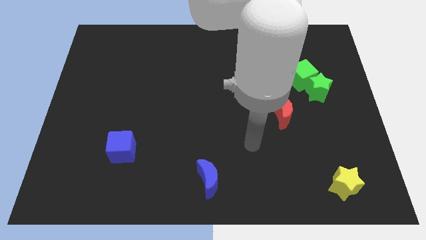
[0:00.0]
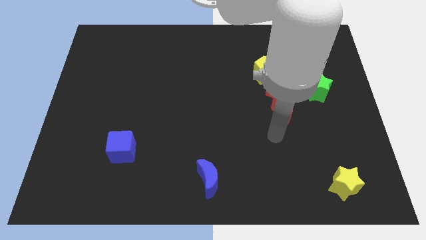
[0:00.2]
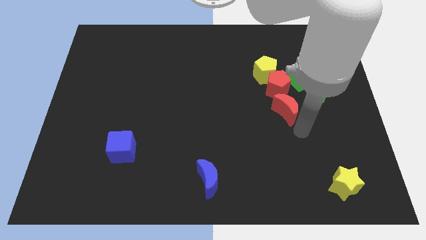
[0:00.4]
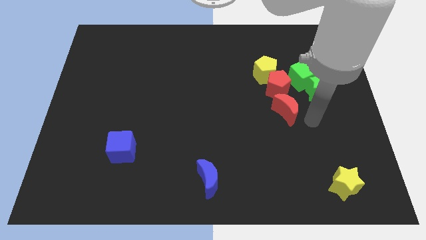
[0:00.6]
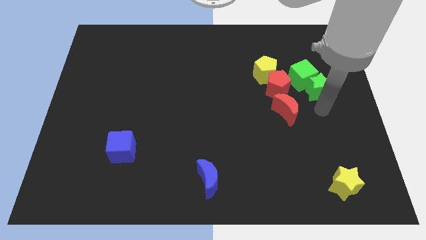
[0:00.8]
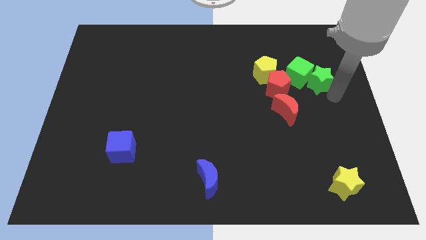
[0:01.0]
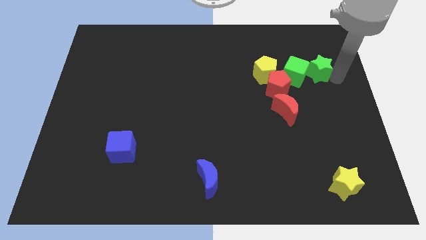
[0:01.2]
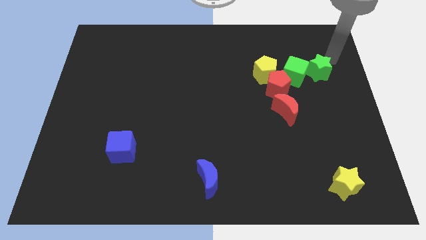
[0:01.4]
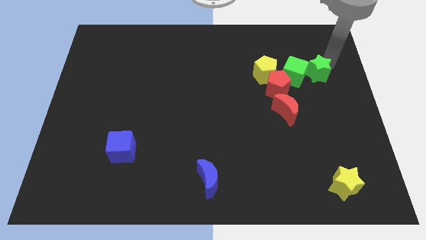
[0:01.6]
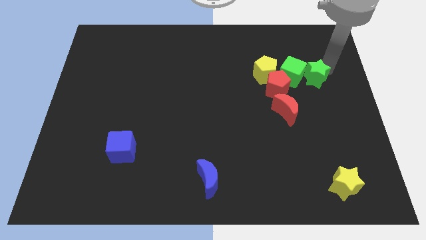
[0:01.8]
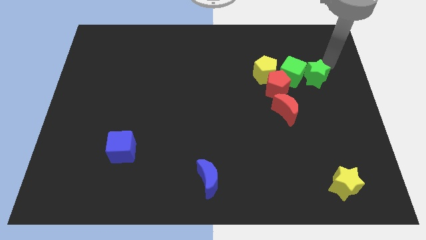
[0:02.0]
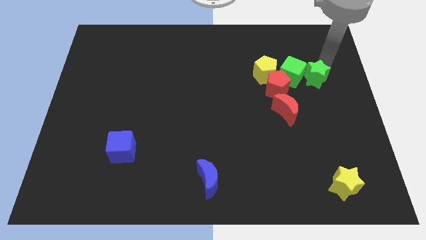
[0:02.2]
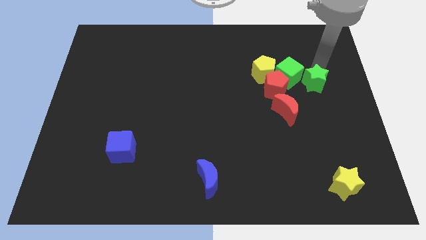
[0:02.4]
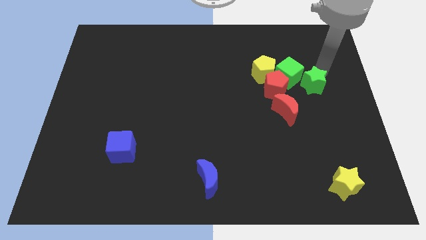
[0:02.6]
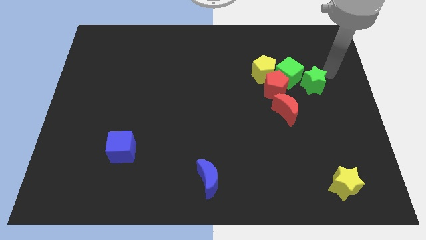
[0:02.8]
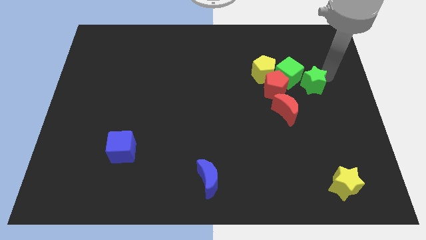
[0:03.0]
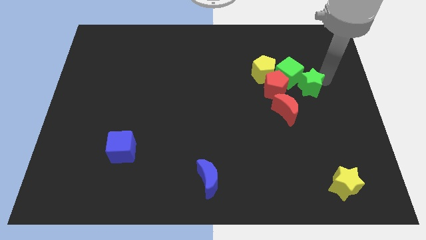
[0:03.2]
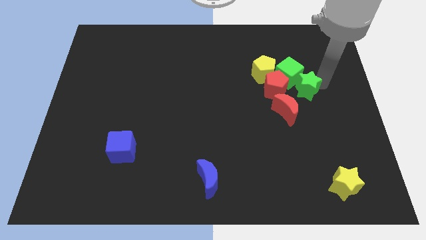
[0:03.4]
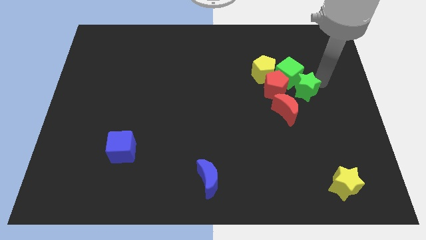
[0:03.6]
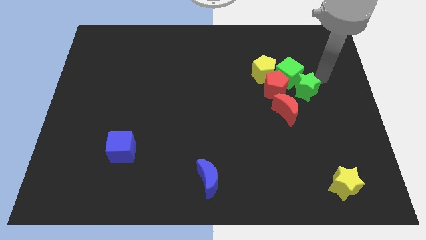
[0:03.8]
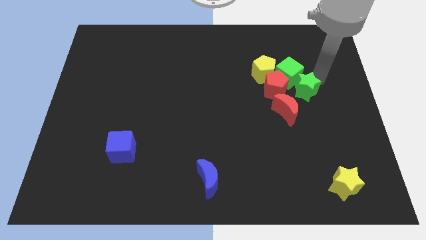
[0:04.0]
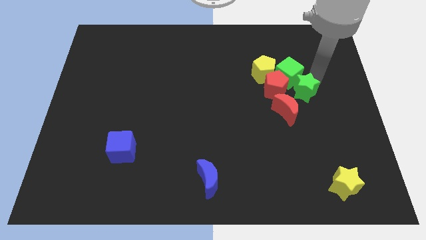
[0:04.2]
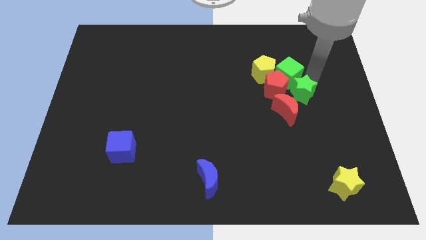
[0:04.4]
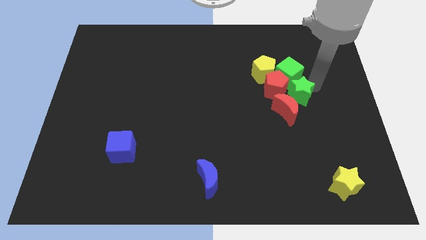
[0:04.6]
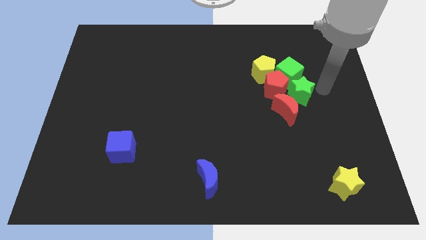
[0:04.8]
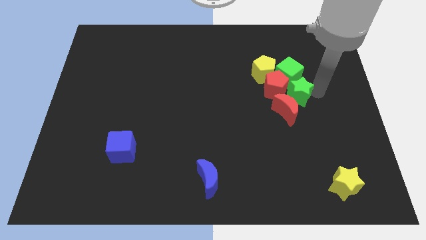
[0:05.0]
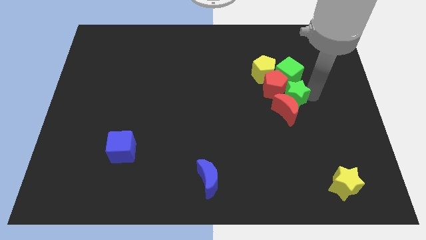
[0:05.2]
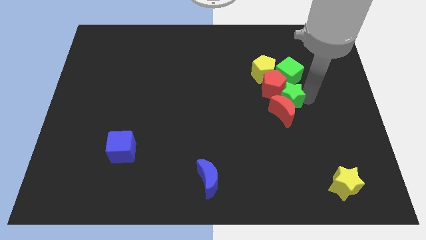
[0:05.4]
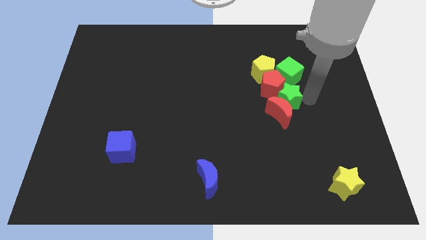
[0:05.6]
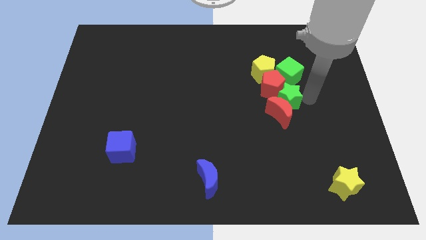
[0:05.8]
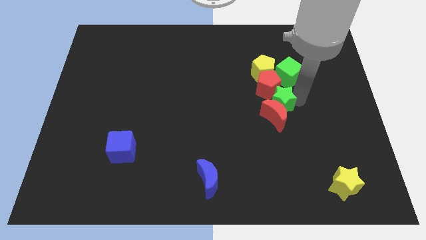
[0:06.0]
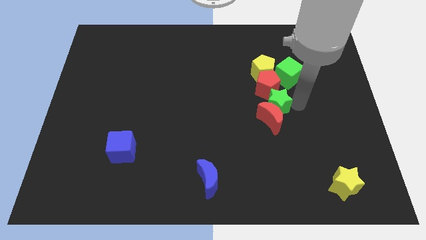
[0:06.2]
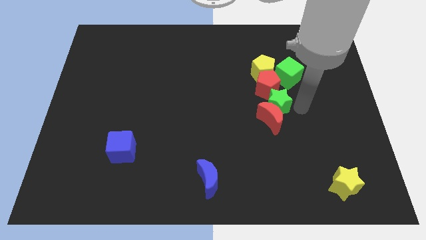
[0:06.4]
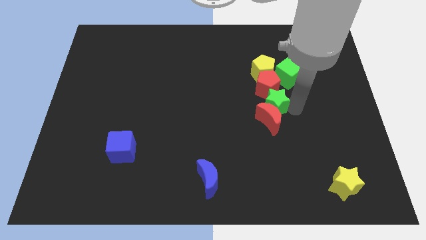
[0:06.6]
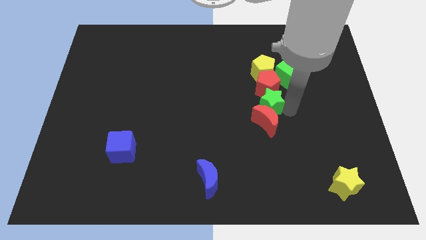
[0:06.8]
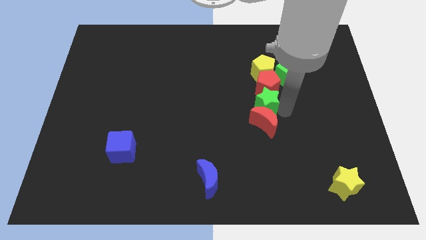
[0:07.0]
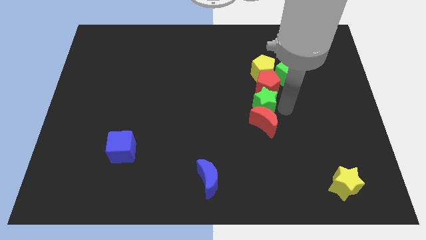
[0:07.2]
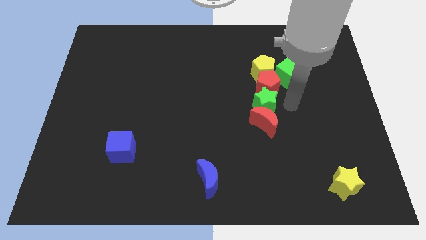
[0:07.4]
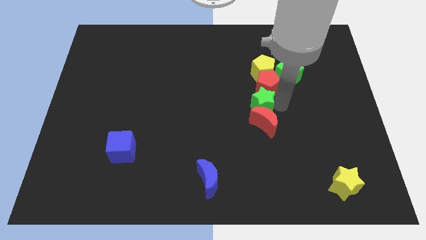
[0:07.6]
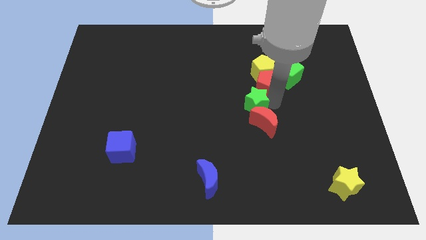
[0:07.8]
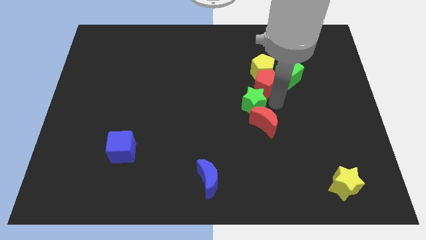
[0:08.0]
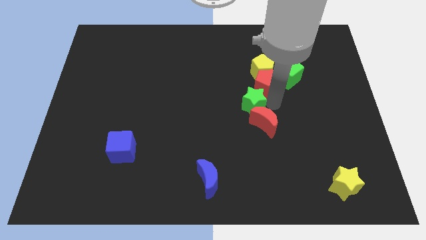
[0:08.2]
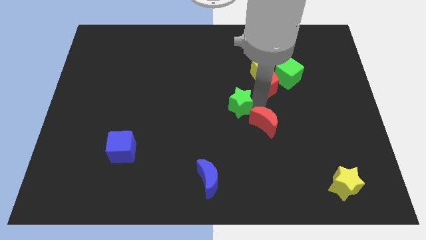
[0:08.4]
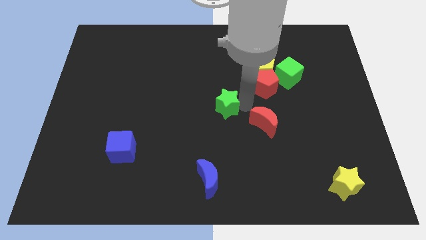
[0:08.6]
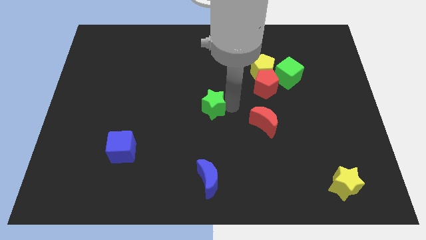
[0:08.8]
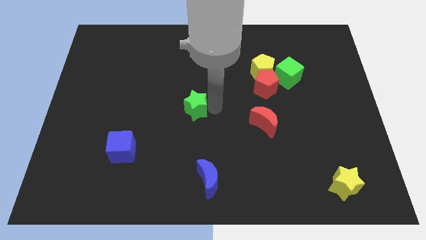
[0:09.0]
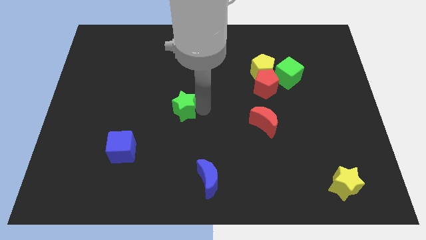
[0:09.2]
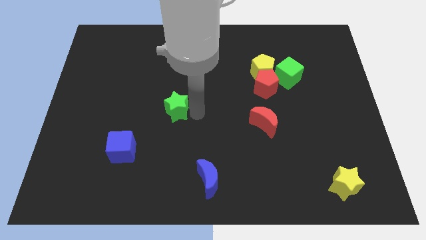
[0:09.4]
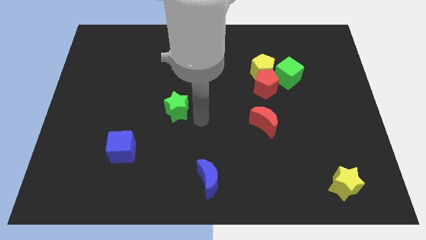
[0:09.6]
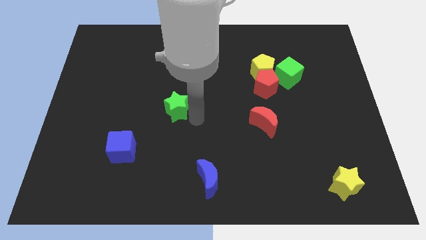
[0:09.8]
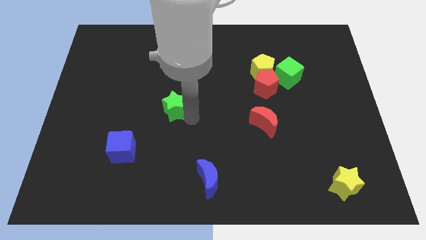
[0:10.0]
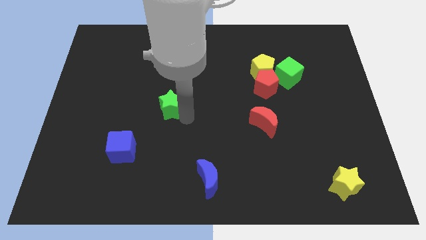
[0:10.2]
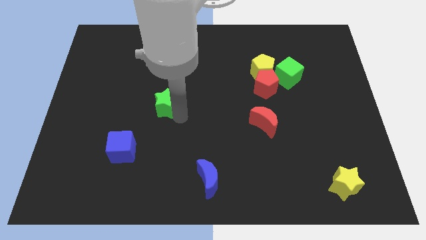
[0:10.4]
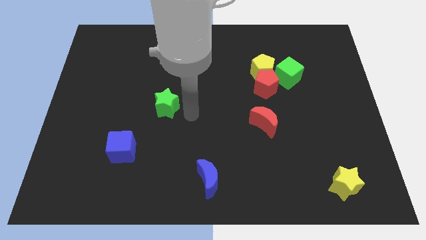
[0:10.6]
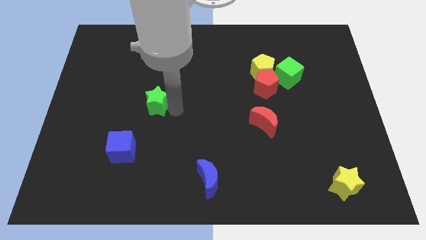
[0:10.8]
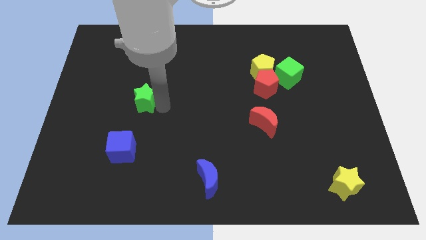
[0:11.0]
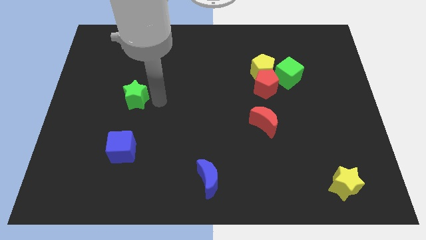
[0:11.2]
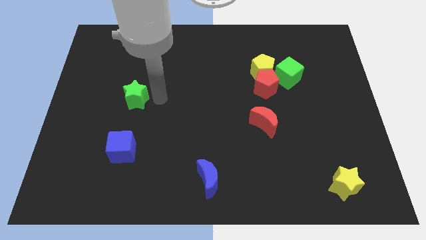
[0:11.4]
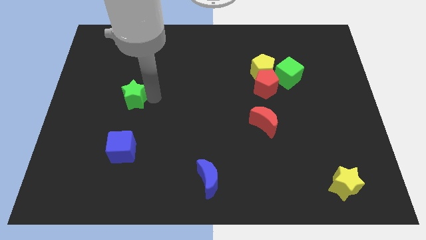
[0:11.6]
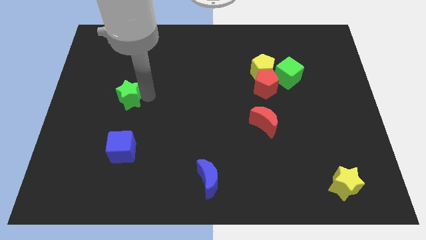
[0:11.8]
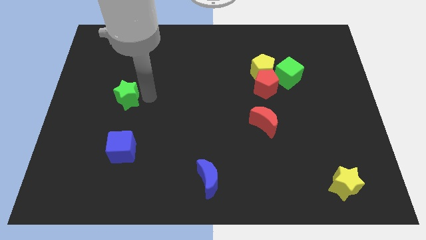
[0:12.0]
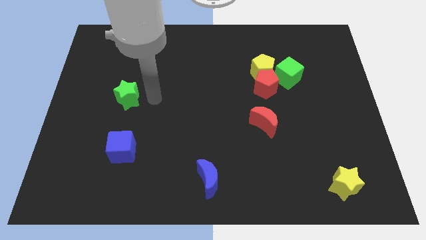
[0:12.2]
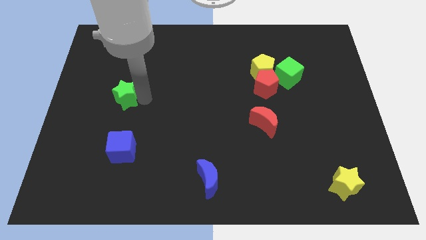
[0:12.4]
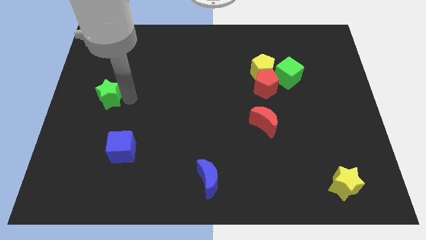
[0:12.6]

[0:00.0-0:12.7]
slide the green star to the left side
